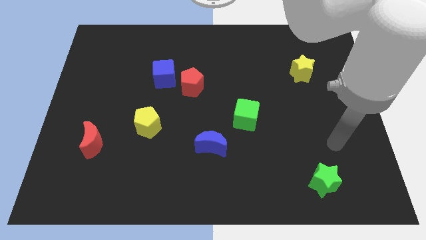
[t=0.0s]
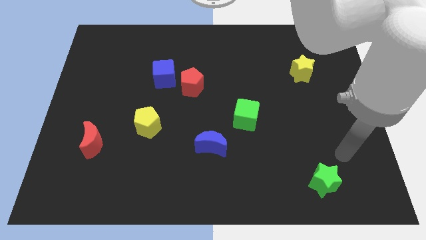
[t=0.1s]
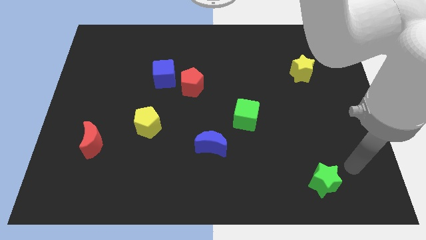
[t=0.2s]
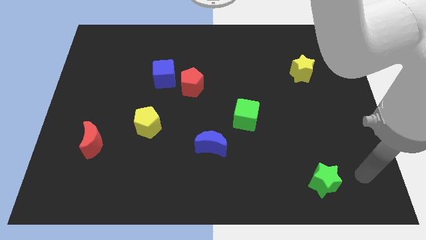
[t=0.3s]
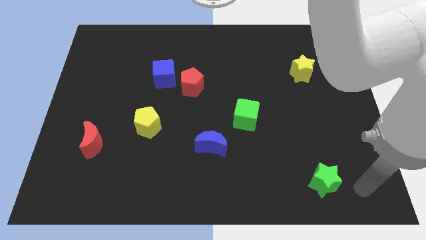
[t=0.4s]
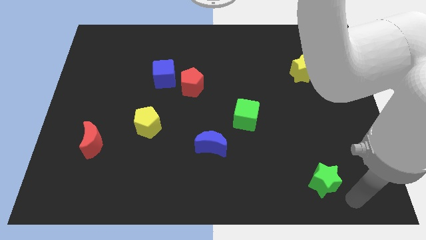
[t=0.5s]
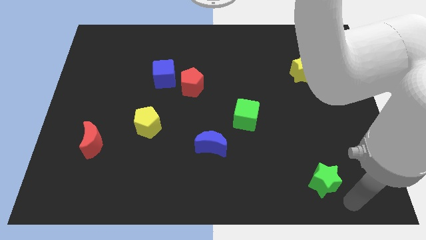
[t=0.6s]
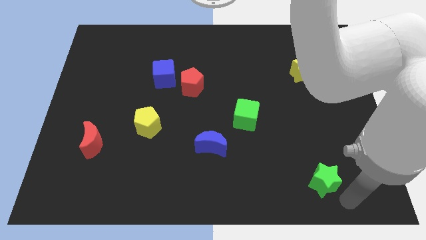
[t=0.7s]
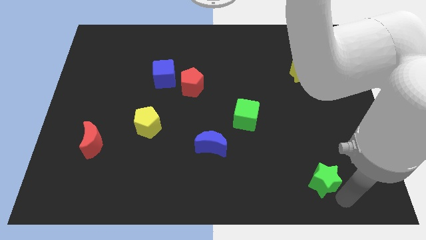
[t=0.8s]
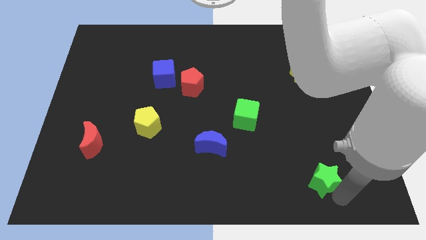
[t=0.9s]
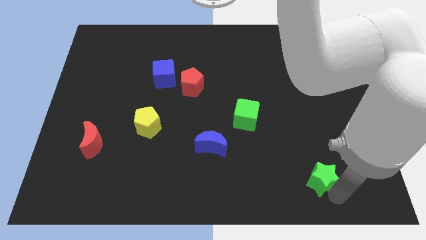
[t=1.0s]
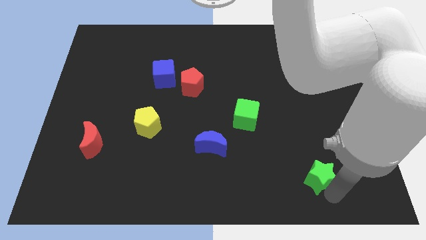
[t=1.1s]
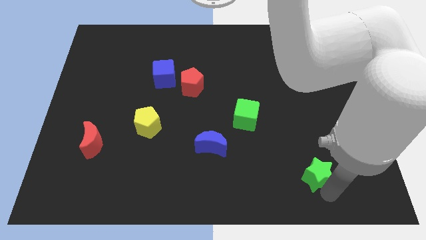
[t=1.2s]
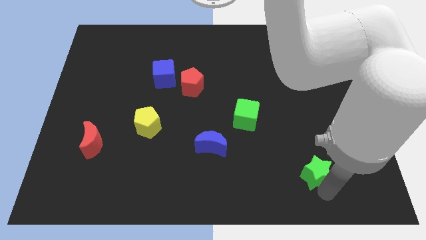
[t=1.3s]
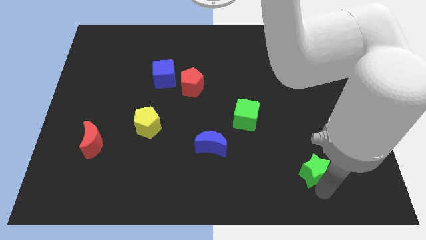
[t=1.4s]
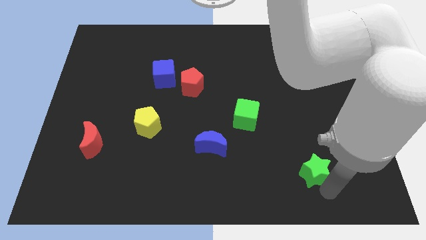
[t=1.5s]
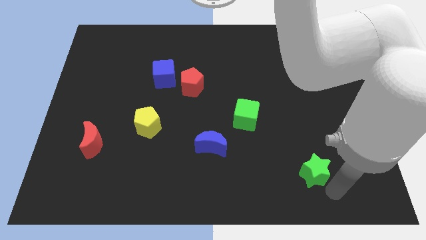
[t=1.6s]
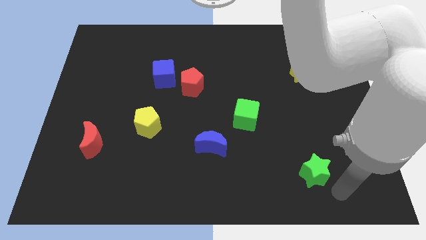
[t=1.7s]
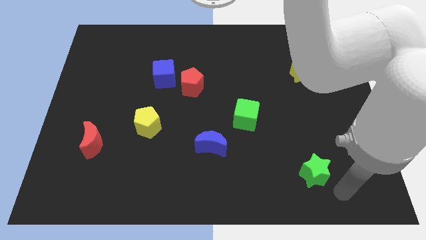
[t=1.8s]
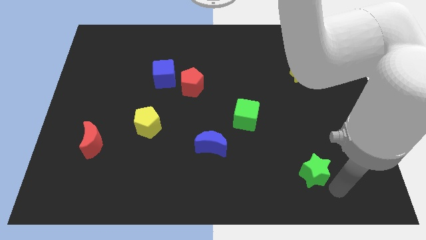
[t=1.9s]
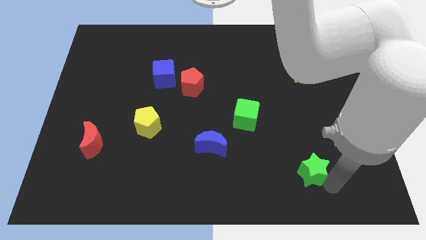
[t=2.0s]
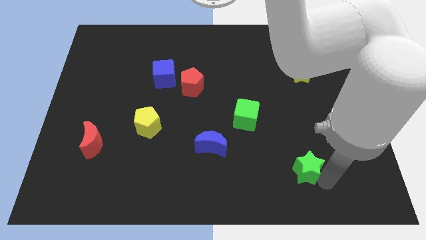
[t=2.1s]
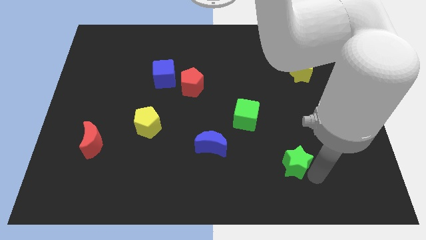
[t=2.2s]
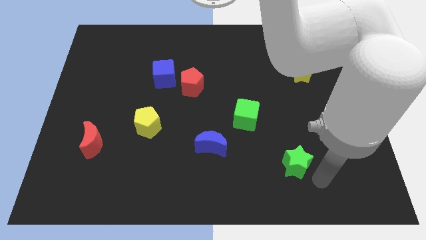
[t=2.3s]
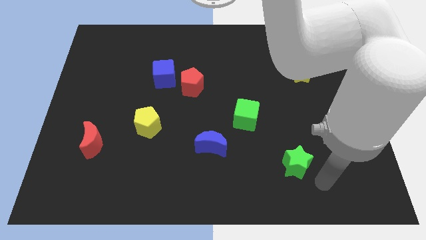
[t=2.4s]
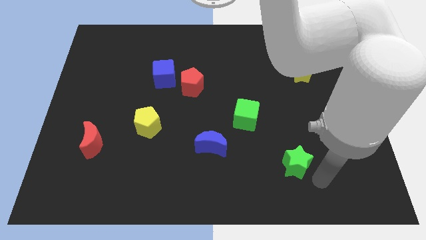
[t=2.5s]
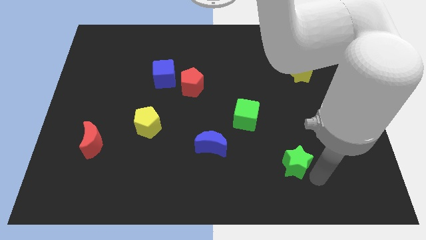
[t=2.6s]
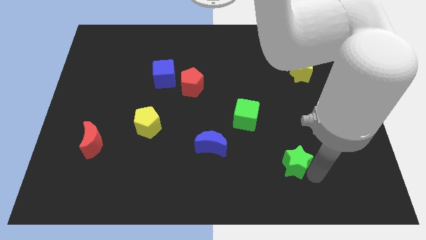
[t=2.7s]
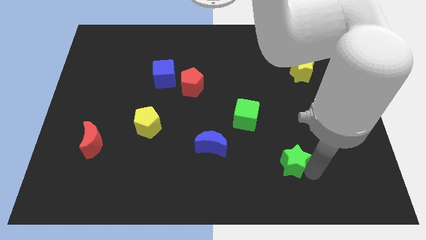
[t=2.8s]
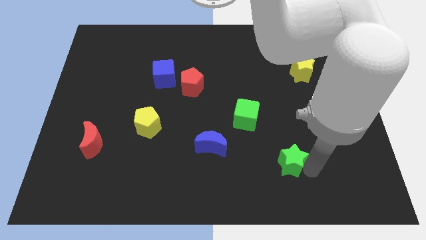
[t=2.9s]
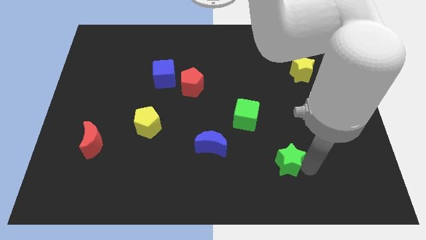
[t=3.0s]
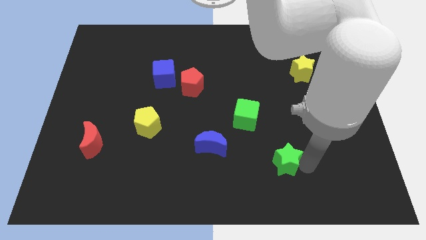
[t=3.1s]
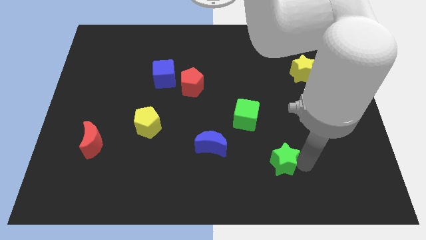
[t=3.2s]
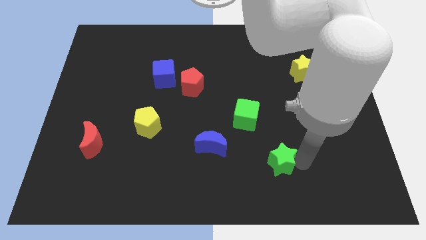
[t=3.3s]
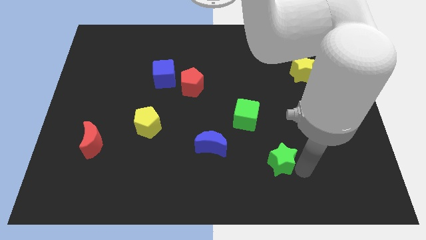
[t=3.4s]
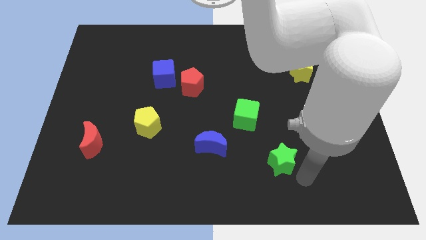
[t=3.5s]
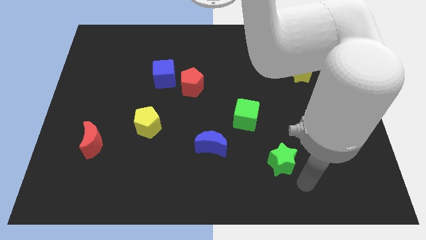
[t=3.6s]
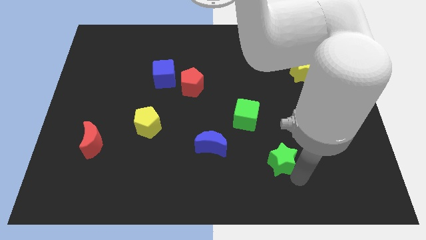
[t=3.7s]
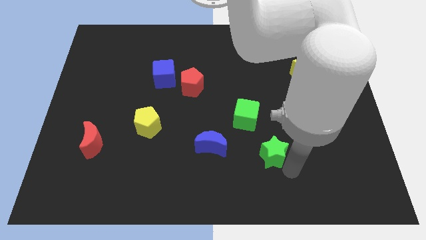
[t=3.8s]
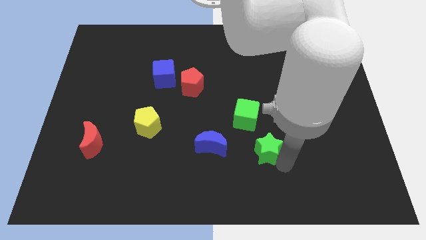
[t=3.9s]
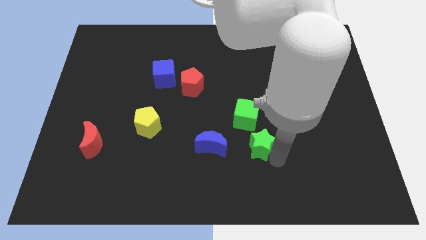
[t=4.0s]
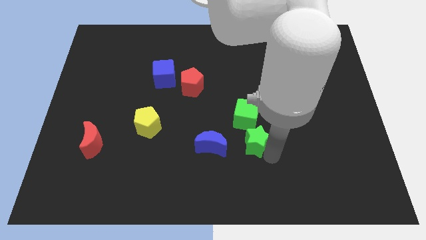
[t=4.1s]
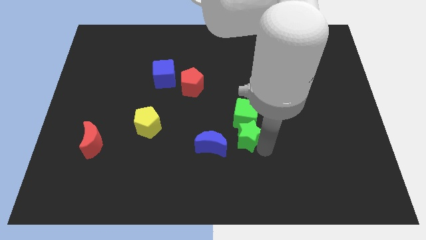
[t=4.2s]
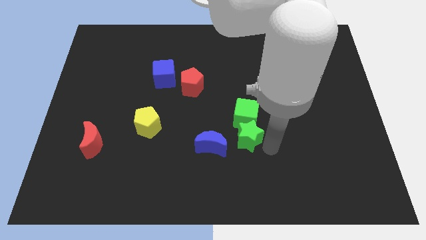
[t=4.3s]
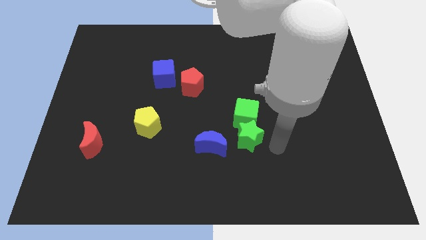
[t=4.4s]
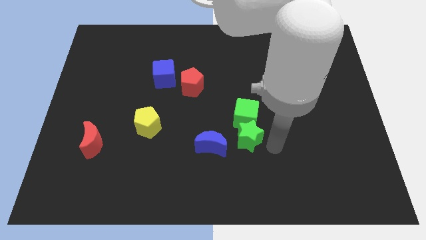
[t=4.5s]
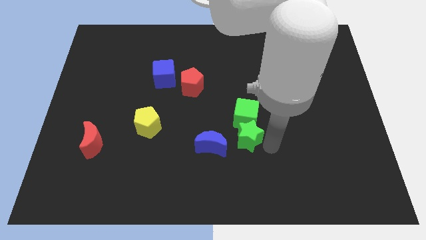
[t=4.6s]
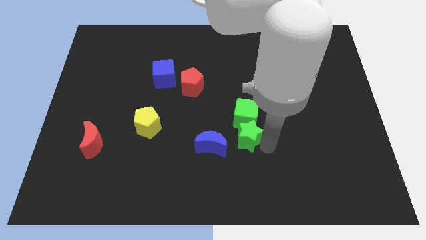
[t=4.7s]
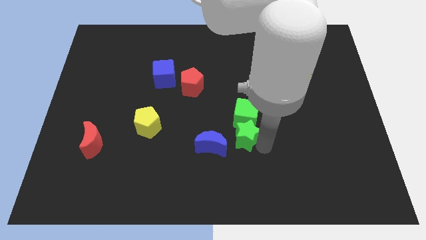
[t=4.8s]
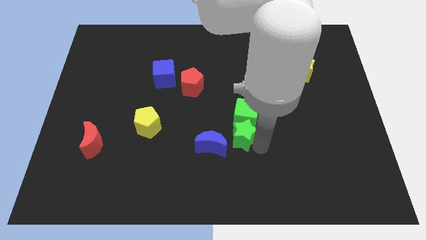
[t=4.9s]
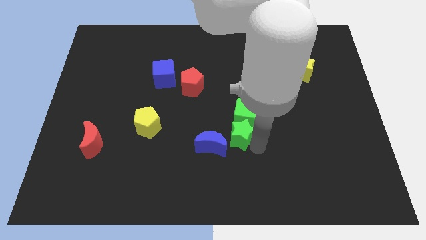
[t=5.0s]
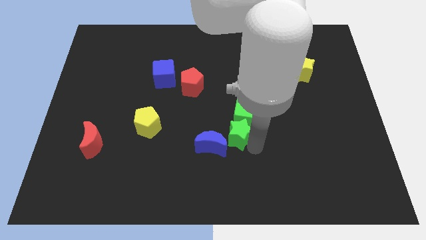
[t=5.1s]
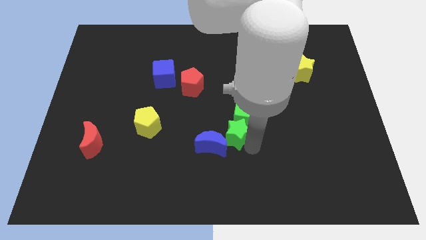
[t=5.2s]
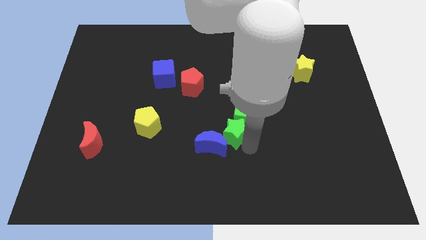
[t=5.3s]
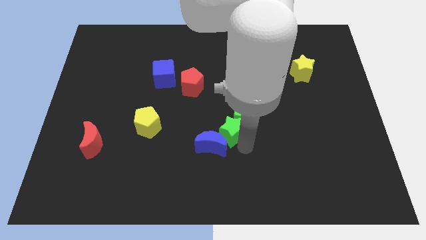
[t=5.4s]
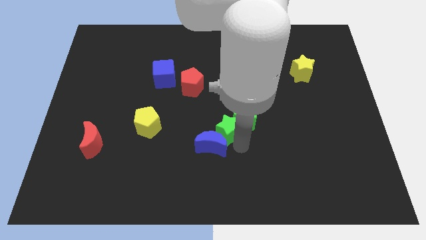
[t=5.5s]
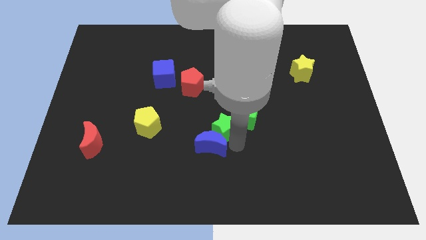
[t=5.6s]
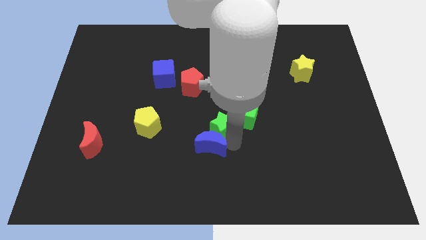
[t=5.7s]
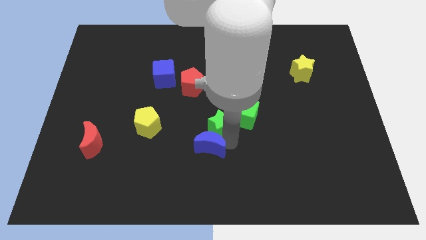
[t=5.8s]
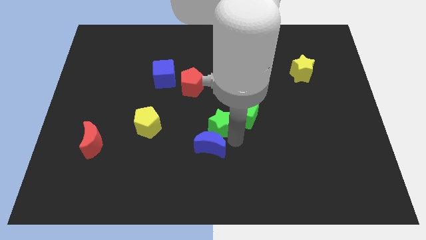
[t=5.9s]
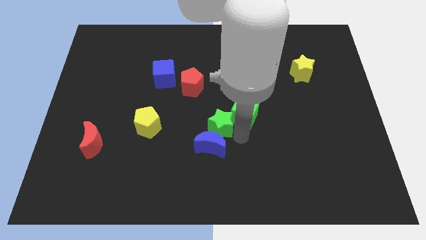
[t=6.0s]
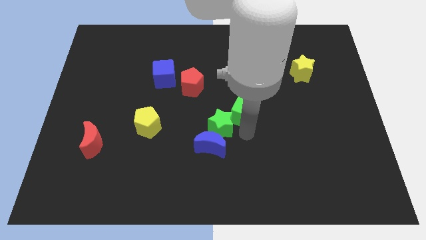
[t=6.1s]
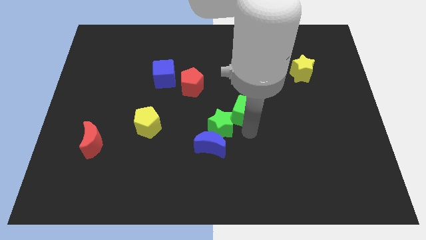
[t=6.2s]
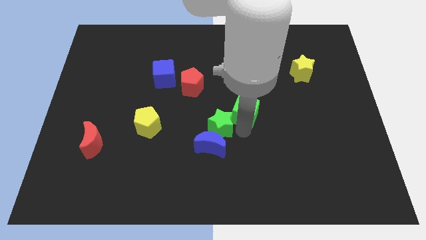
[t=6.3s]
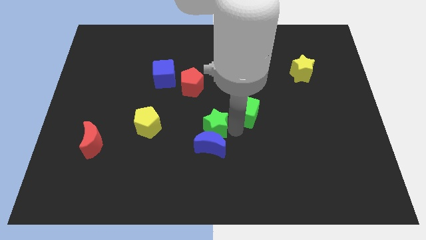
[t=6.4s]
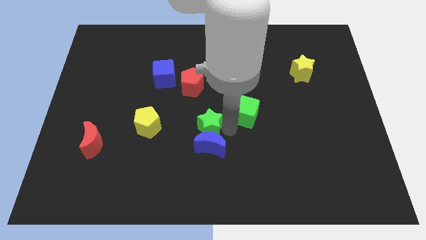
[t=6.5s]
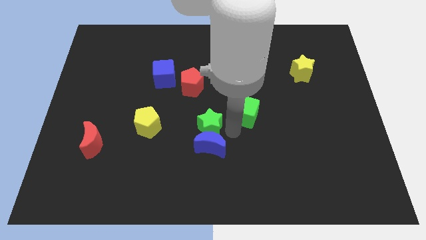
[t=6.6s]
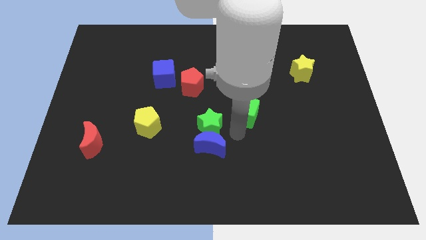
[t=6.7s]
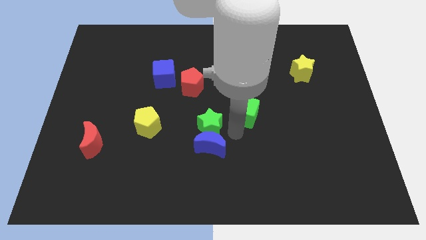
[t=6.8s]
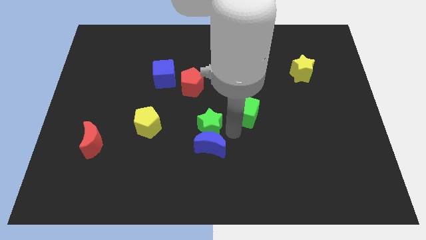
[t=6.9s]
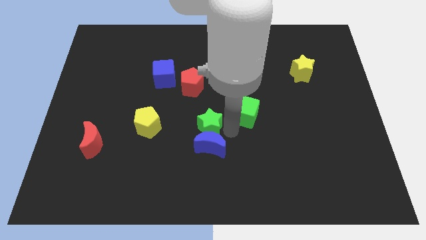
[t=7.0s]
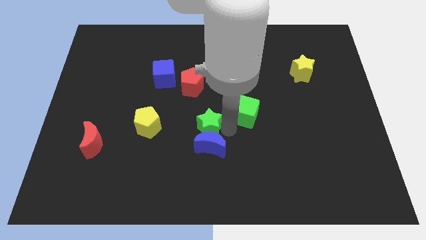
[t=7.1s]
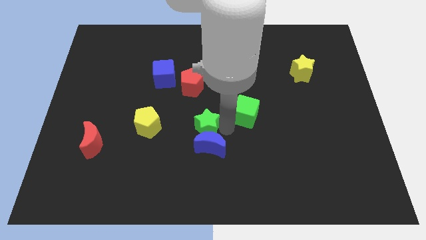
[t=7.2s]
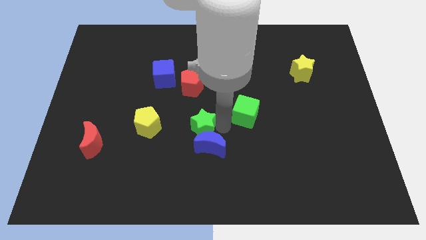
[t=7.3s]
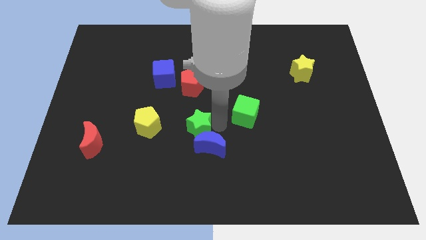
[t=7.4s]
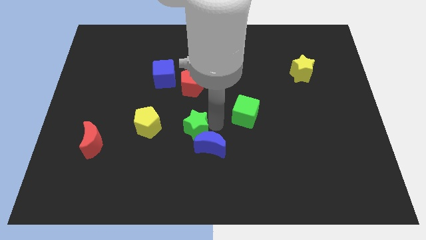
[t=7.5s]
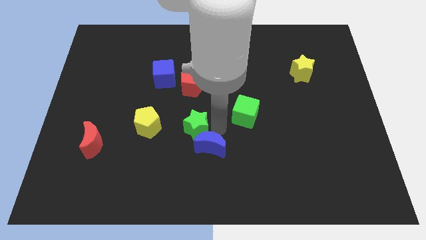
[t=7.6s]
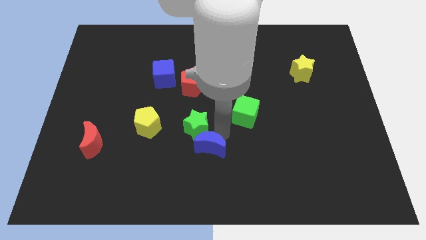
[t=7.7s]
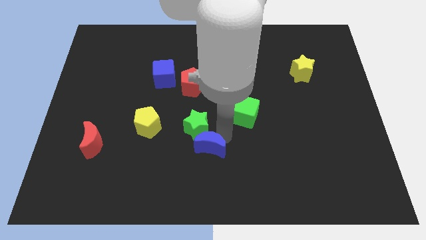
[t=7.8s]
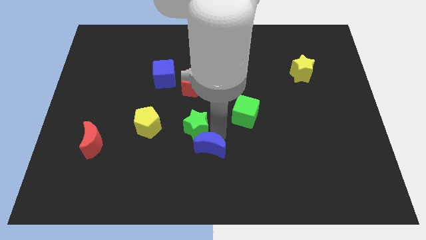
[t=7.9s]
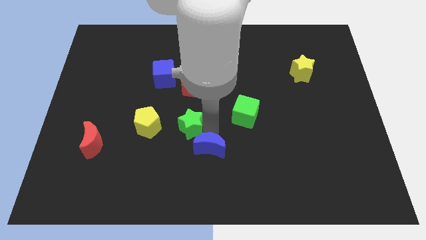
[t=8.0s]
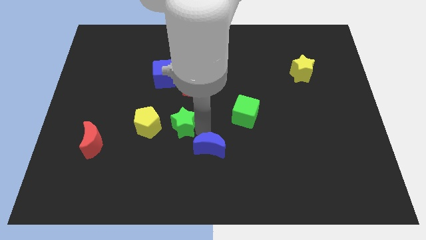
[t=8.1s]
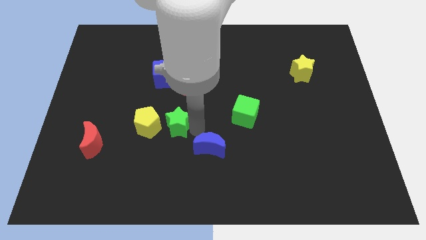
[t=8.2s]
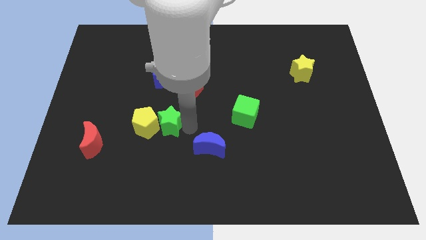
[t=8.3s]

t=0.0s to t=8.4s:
slide the green star close to the yellow pentagon
